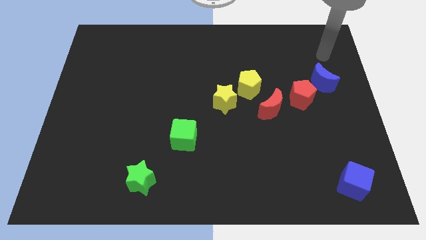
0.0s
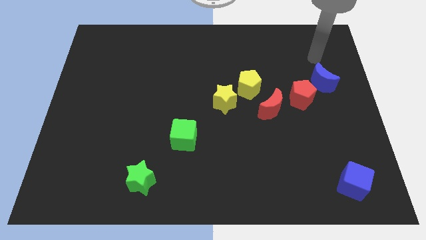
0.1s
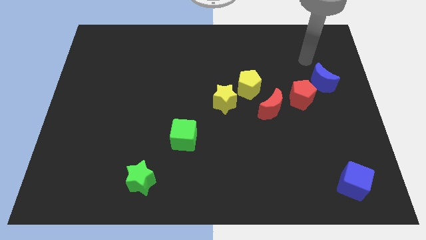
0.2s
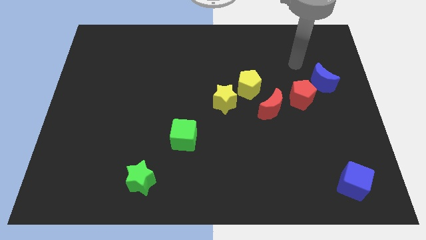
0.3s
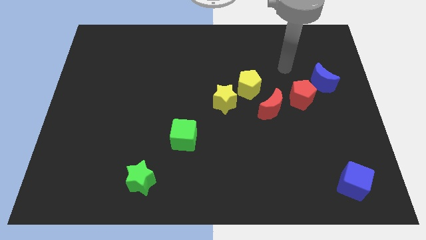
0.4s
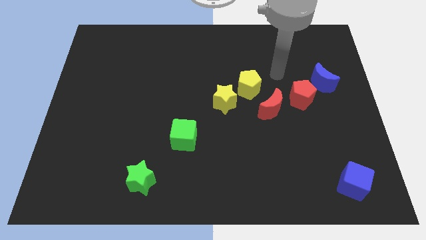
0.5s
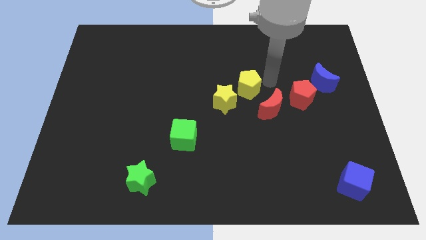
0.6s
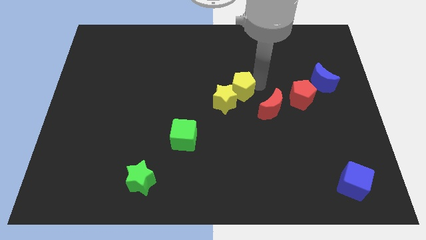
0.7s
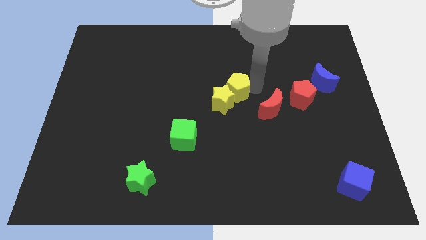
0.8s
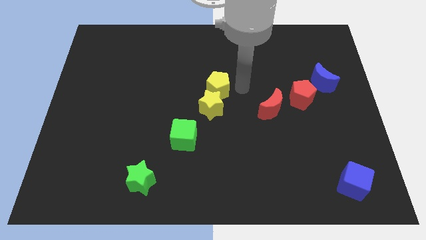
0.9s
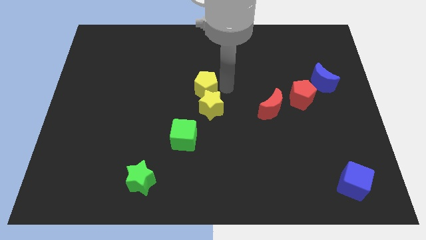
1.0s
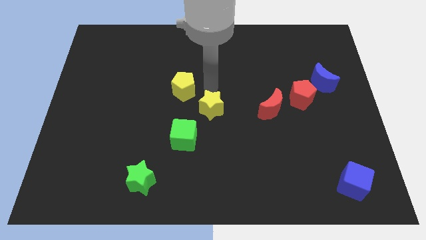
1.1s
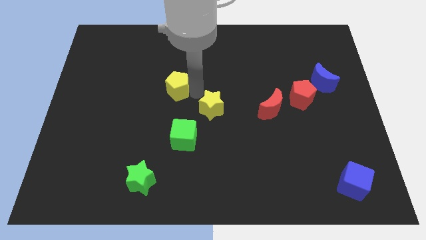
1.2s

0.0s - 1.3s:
move the yellow star away from the yellow pentagon

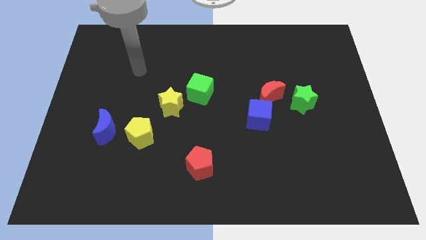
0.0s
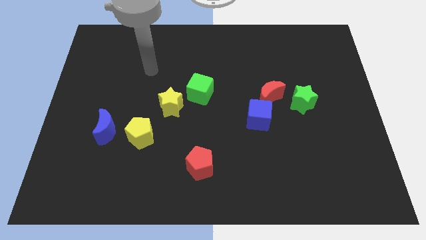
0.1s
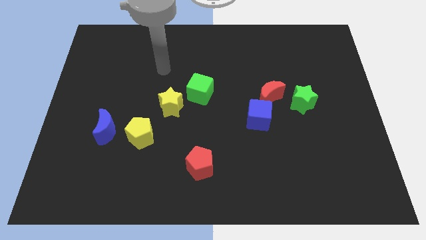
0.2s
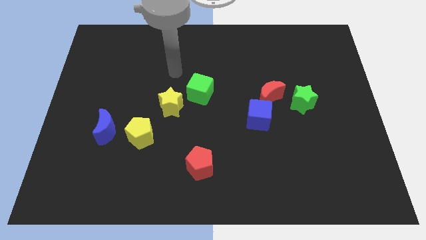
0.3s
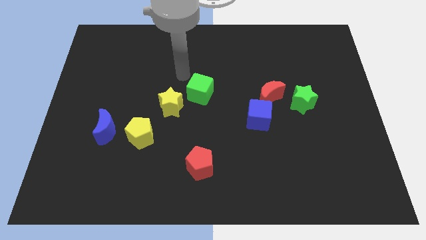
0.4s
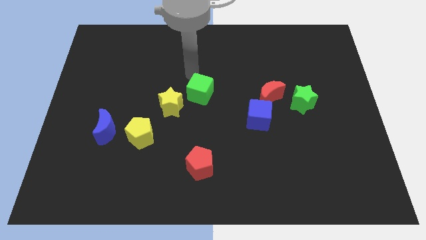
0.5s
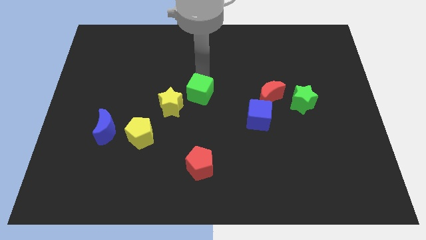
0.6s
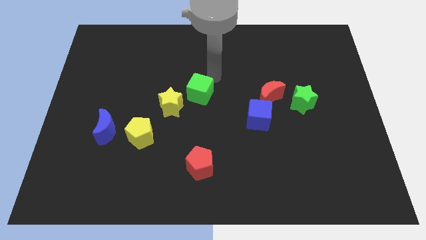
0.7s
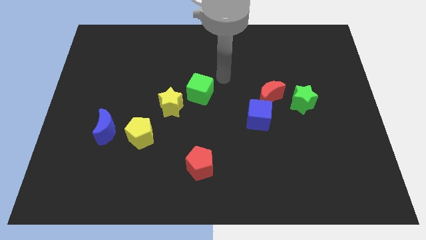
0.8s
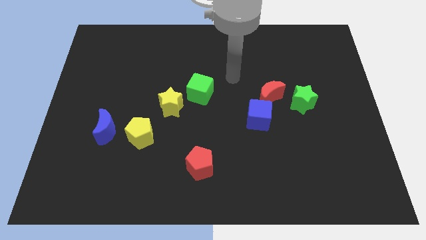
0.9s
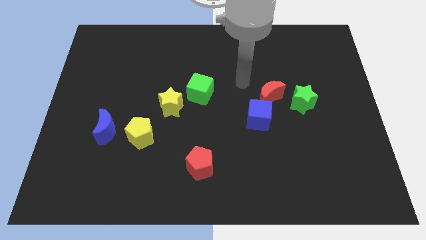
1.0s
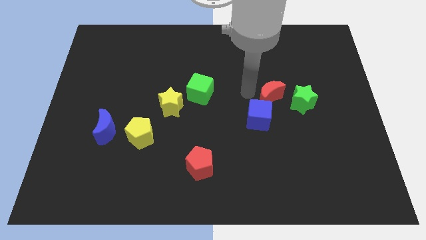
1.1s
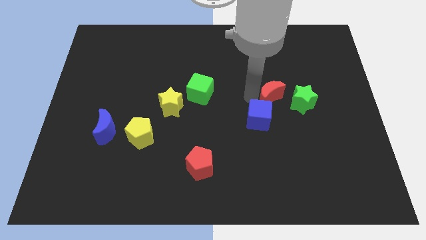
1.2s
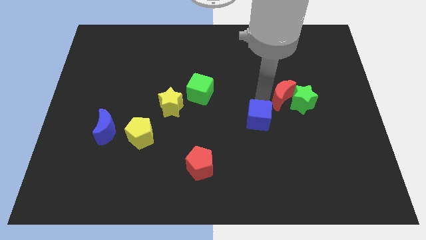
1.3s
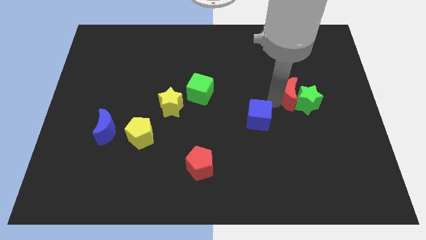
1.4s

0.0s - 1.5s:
separate the blue cube from the red moon

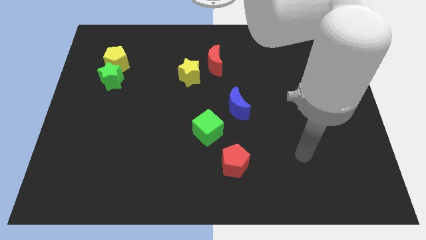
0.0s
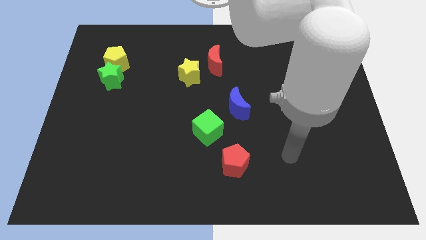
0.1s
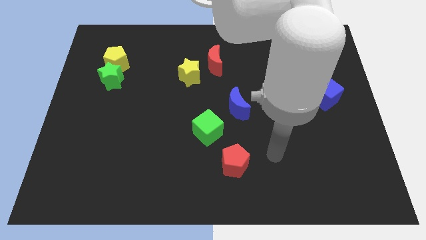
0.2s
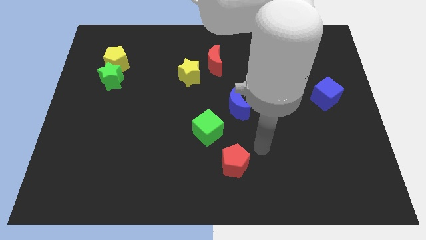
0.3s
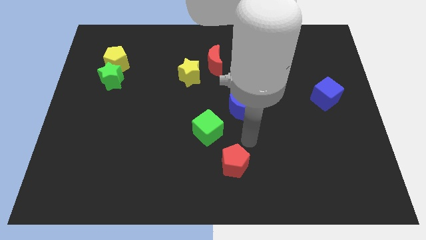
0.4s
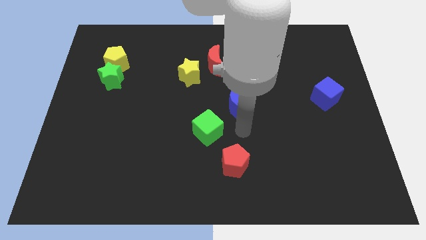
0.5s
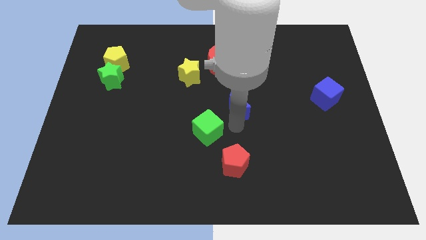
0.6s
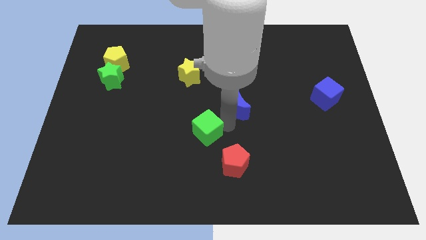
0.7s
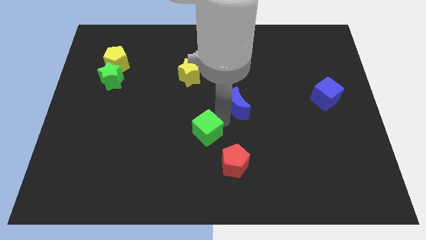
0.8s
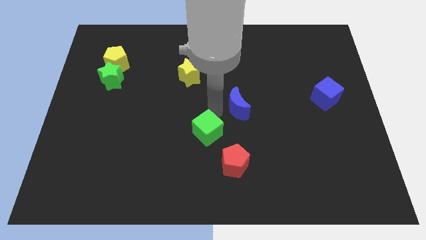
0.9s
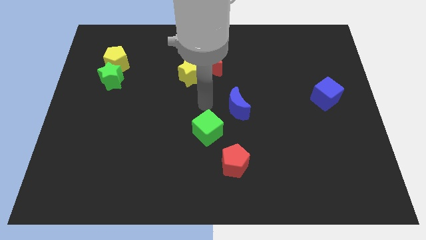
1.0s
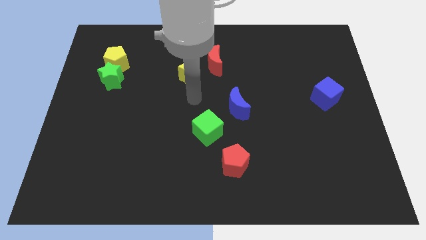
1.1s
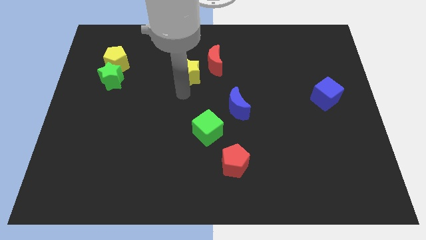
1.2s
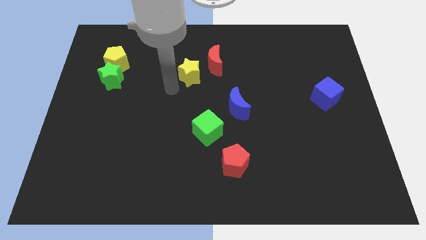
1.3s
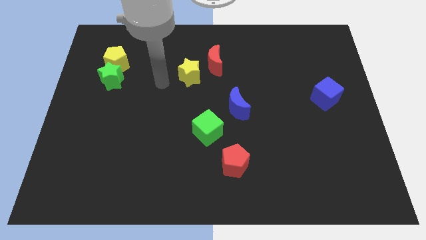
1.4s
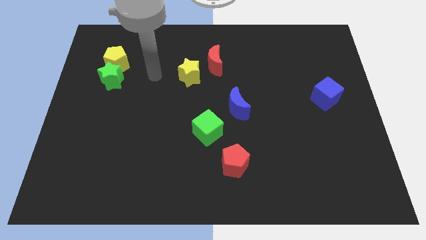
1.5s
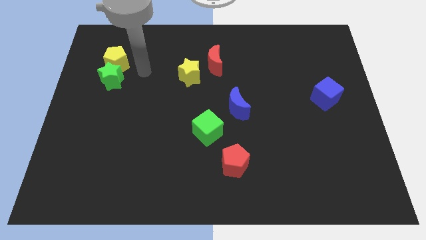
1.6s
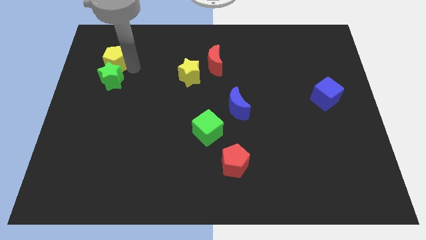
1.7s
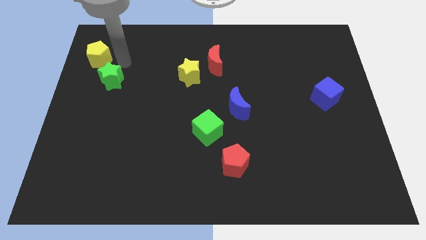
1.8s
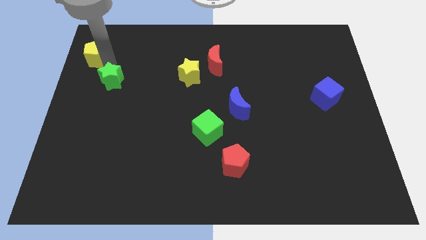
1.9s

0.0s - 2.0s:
move the green star away from the yellow pentagon

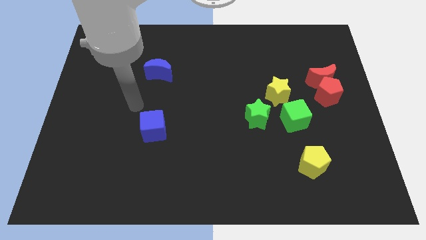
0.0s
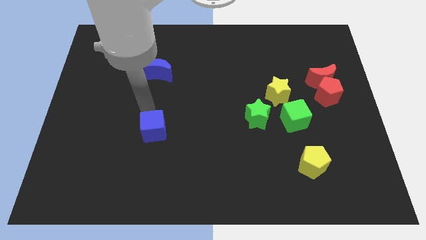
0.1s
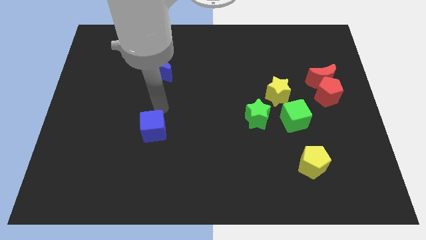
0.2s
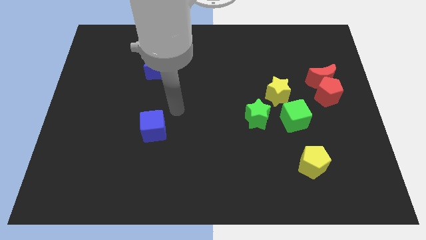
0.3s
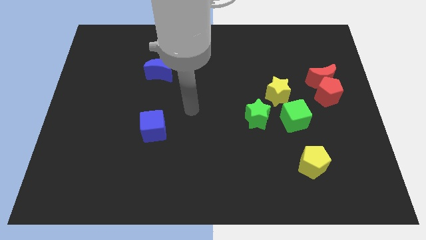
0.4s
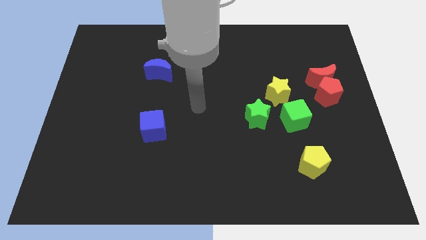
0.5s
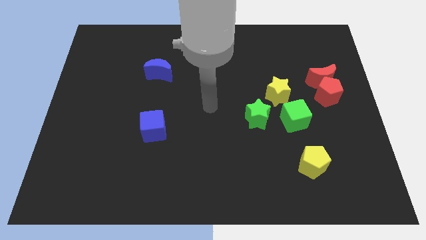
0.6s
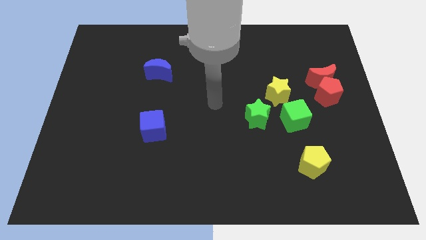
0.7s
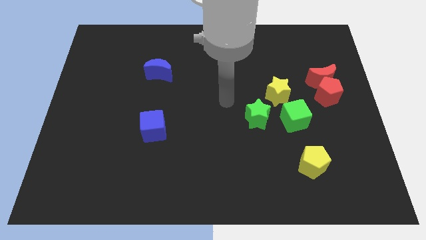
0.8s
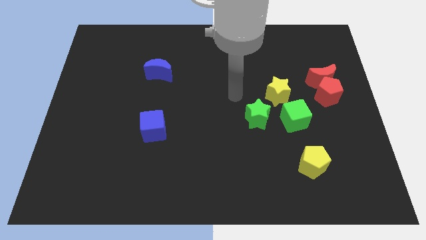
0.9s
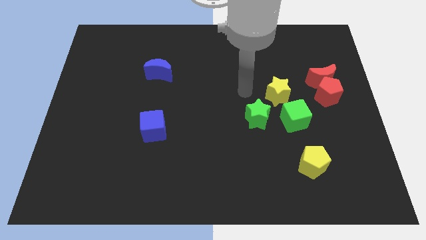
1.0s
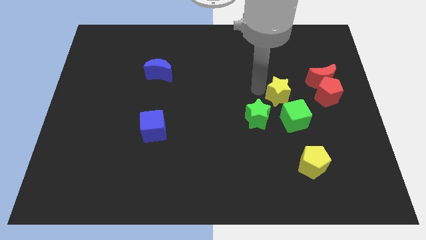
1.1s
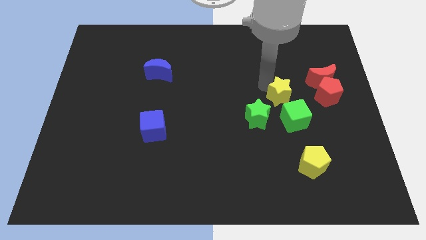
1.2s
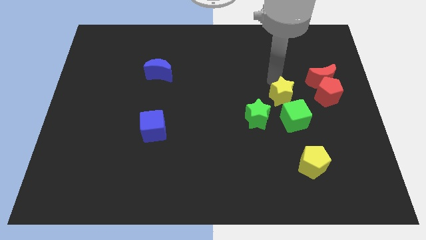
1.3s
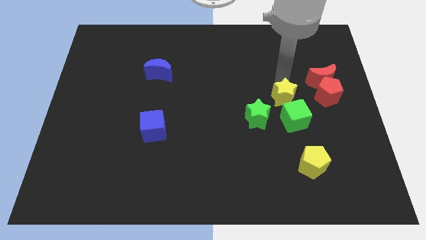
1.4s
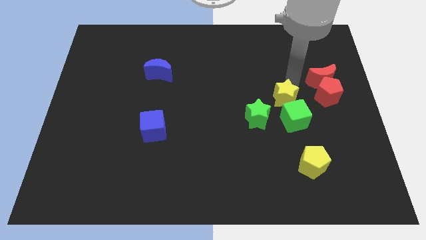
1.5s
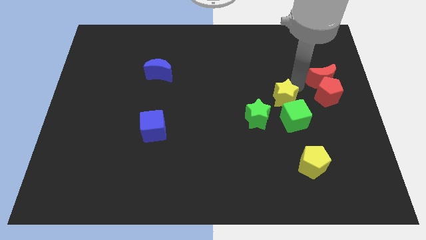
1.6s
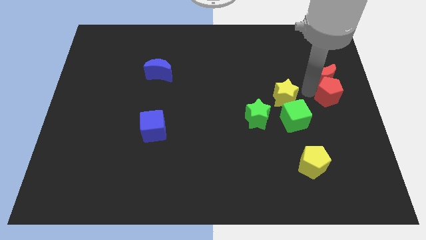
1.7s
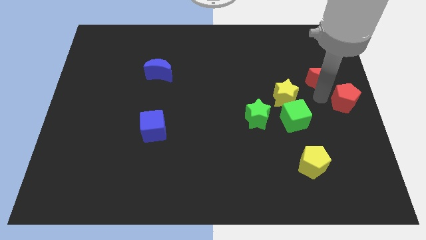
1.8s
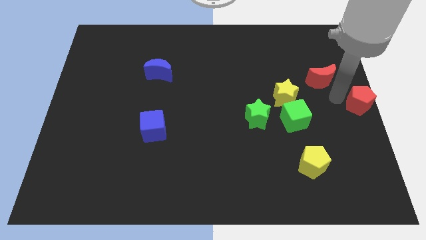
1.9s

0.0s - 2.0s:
move the red moon away from the red pentagon

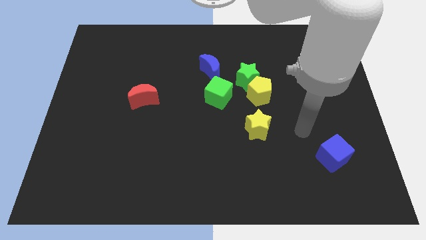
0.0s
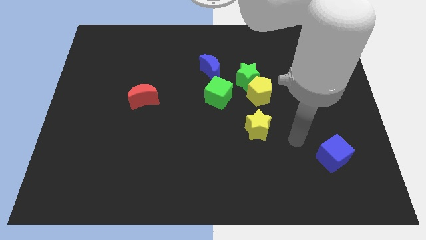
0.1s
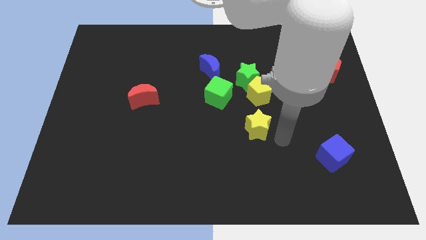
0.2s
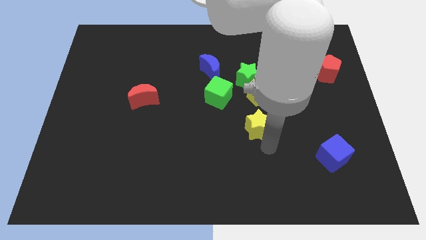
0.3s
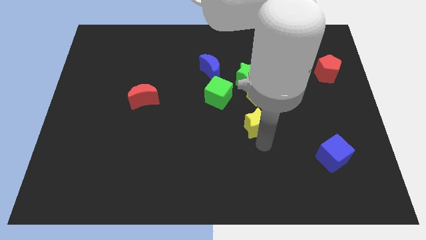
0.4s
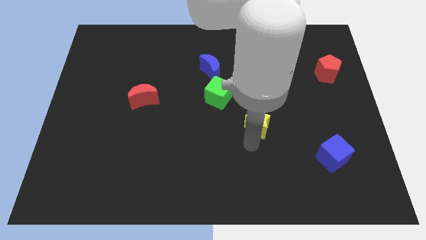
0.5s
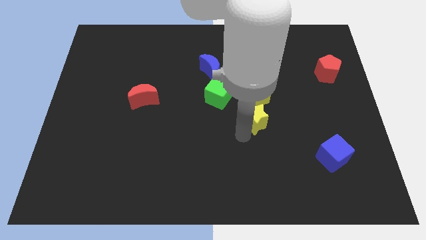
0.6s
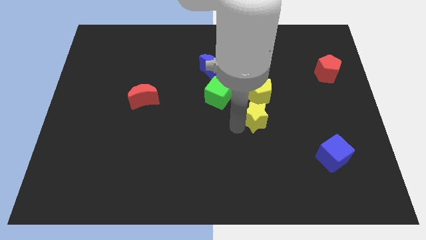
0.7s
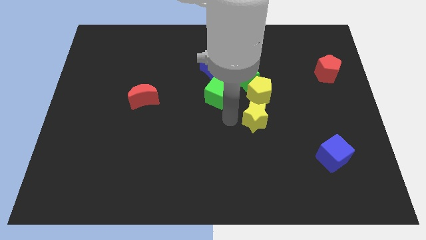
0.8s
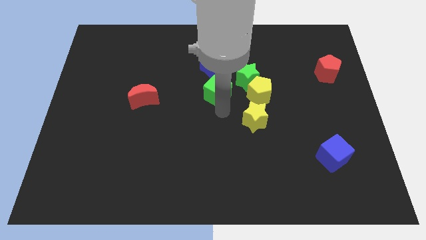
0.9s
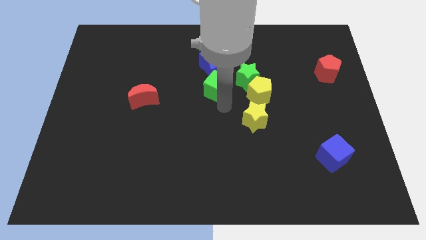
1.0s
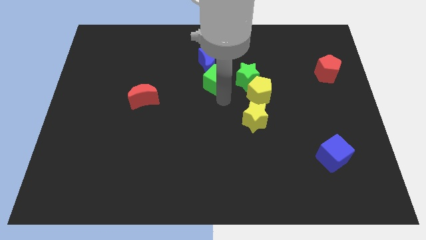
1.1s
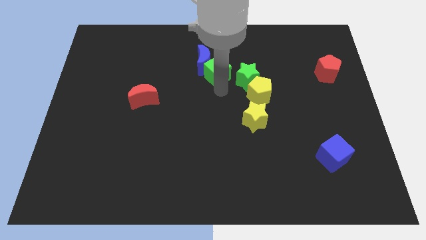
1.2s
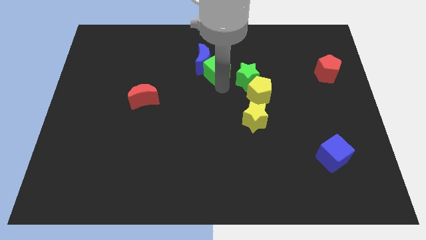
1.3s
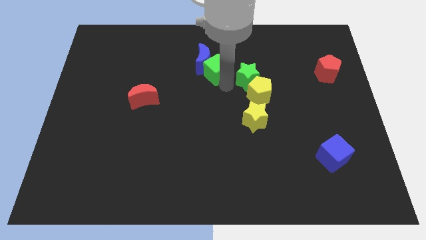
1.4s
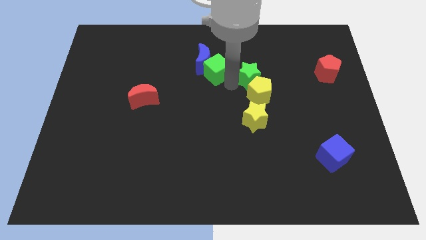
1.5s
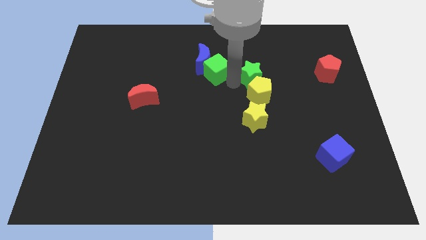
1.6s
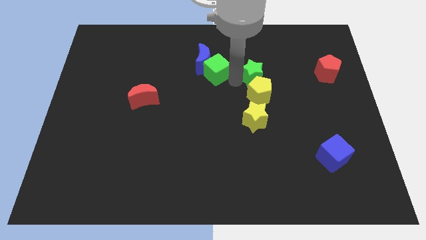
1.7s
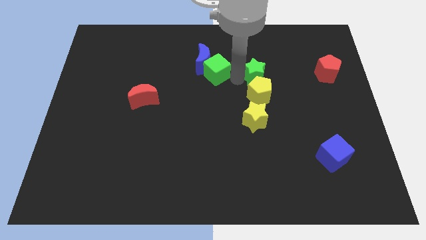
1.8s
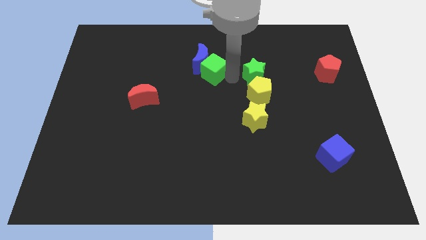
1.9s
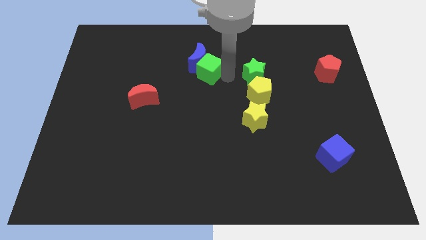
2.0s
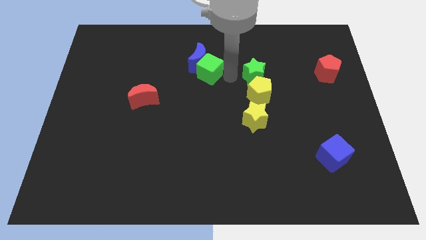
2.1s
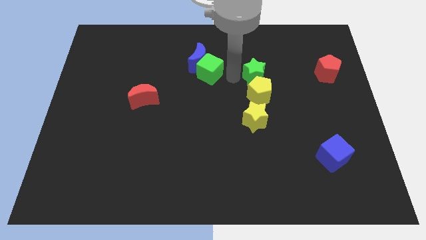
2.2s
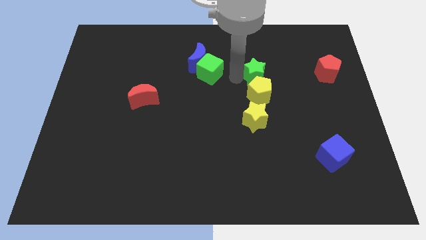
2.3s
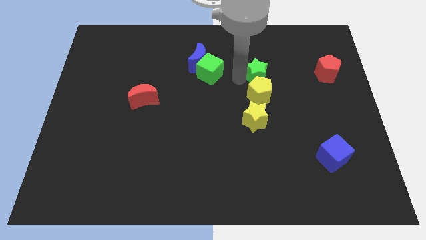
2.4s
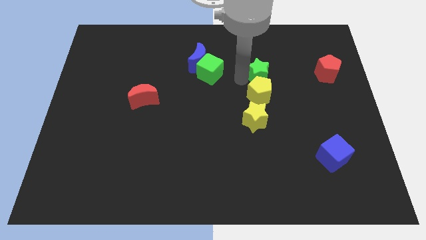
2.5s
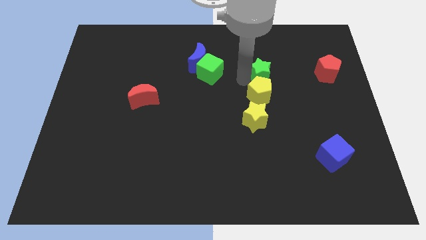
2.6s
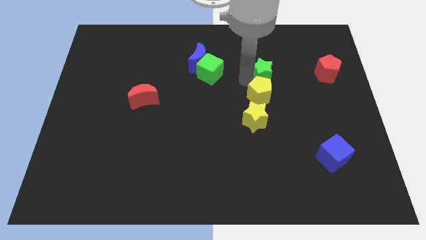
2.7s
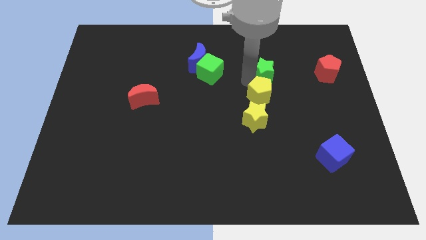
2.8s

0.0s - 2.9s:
pull the green star apart from the group of blocks
